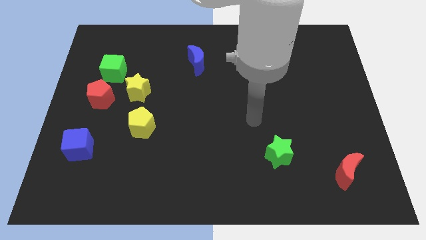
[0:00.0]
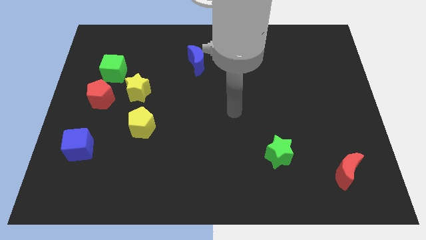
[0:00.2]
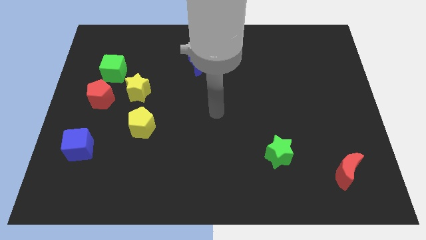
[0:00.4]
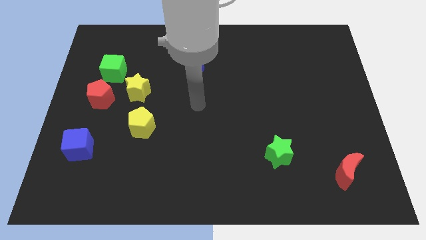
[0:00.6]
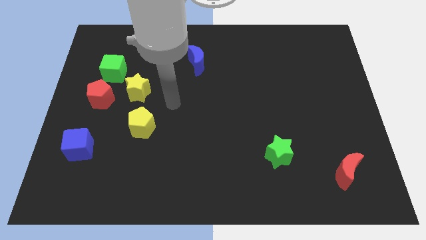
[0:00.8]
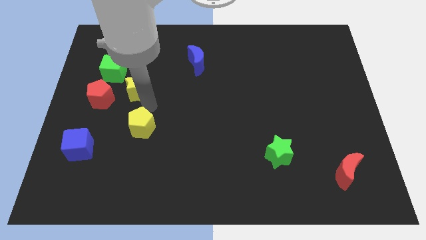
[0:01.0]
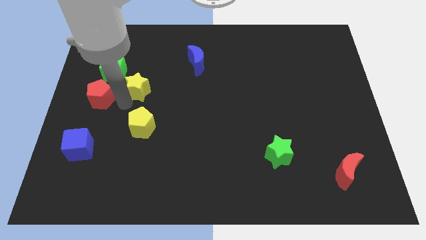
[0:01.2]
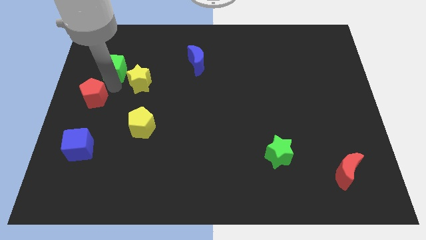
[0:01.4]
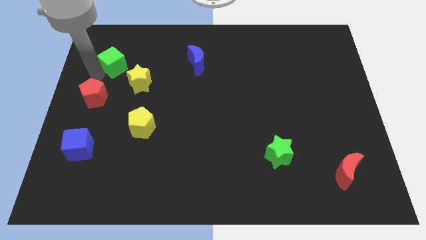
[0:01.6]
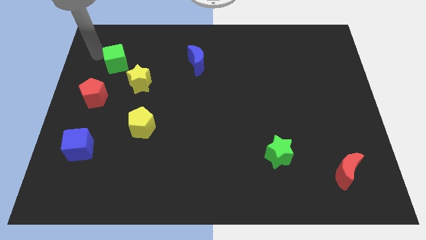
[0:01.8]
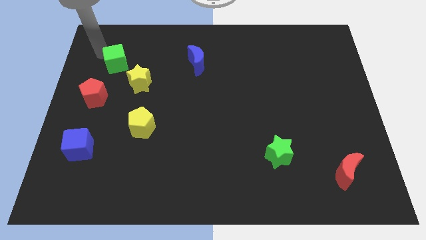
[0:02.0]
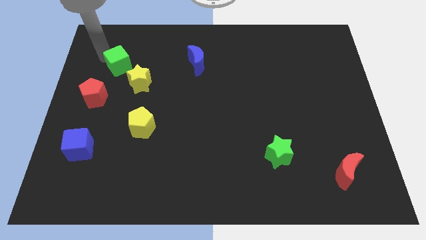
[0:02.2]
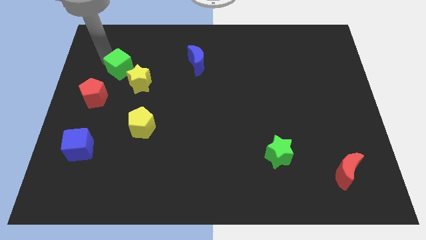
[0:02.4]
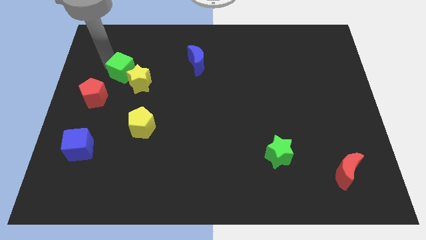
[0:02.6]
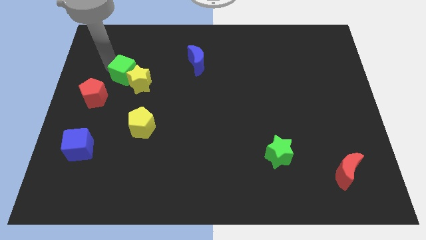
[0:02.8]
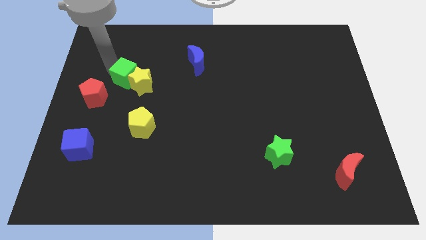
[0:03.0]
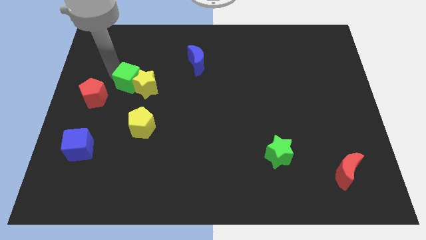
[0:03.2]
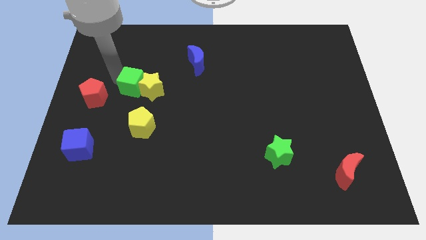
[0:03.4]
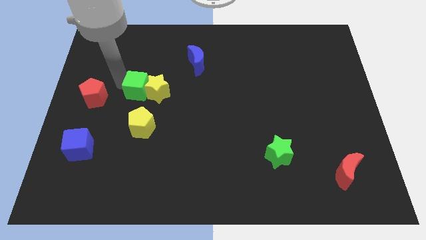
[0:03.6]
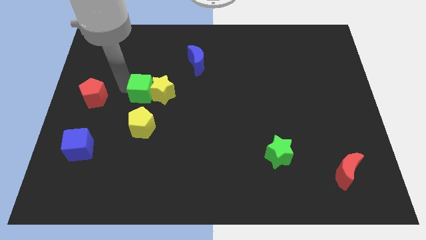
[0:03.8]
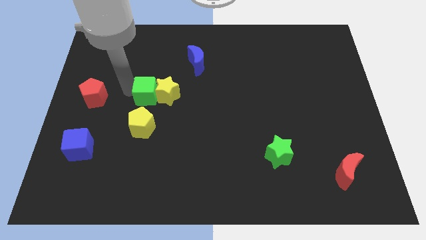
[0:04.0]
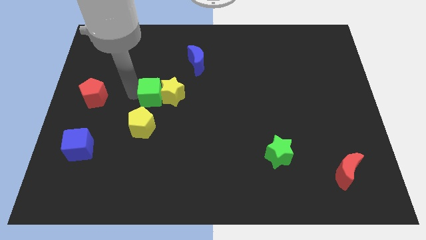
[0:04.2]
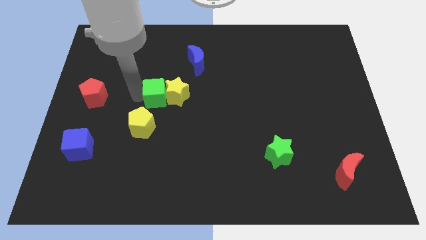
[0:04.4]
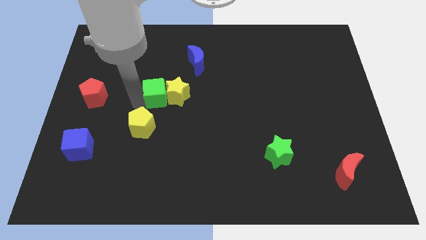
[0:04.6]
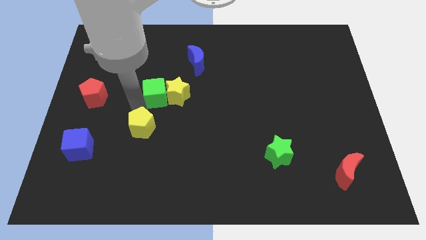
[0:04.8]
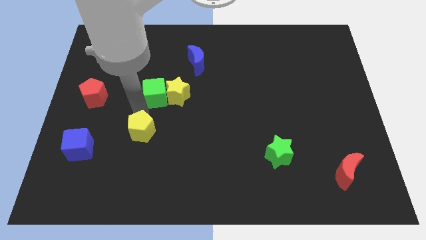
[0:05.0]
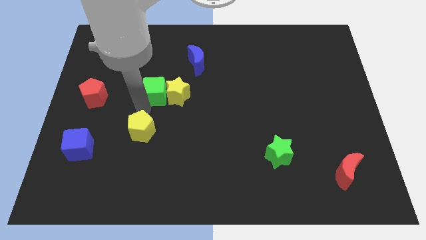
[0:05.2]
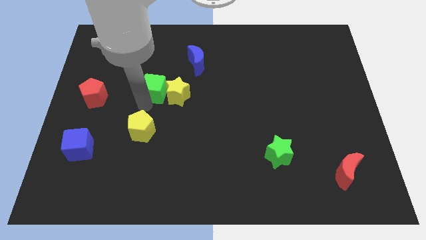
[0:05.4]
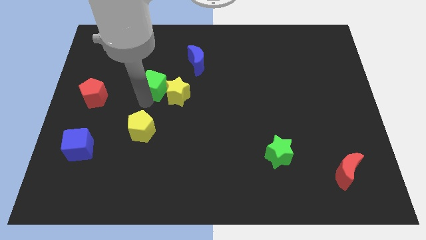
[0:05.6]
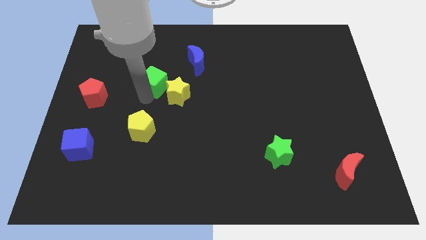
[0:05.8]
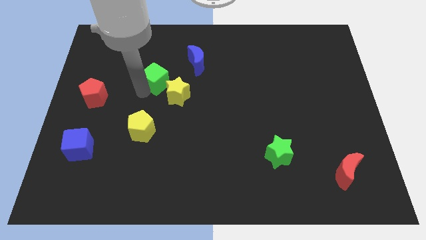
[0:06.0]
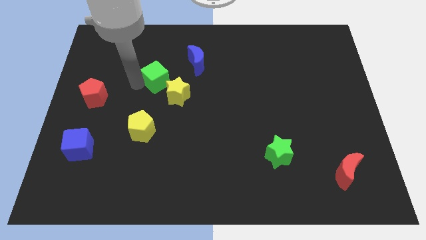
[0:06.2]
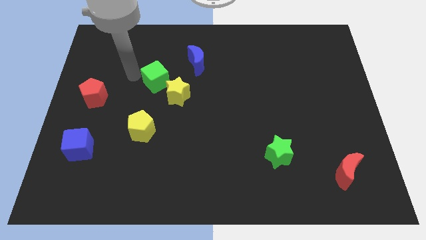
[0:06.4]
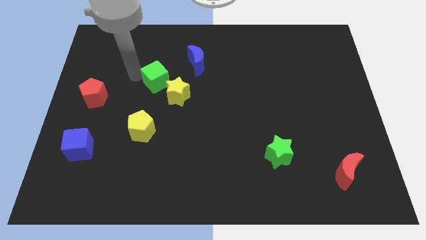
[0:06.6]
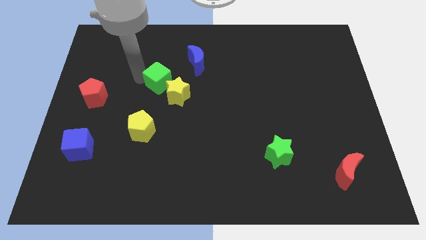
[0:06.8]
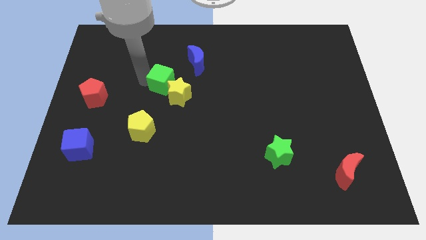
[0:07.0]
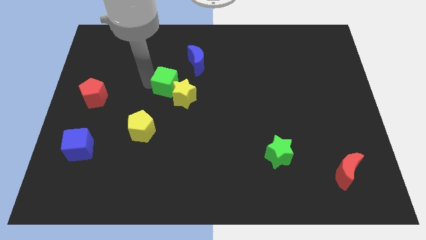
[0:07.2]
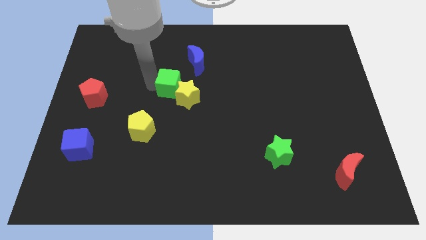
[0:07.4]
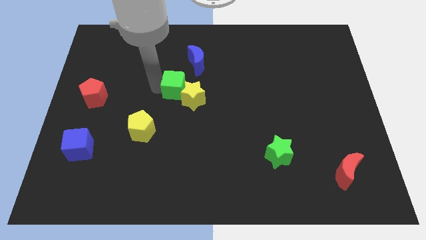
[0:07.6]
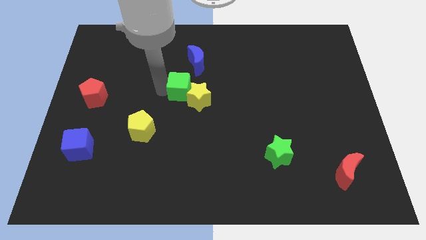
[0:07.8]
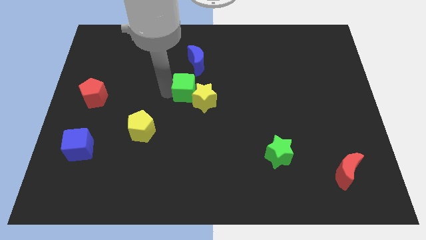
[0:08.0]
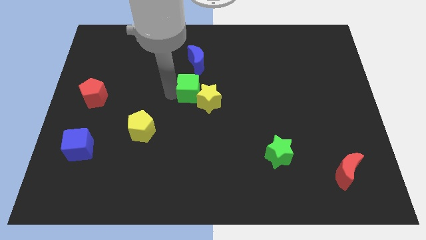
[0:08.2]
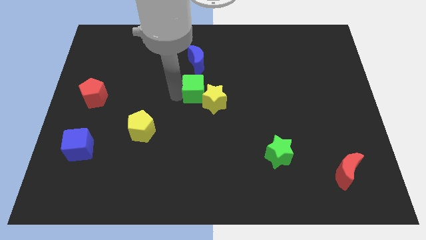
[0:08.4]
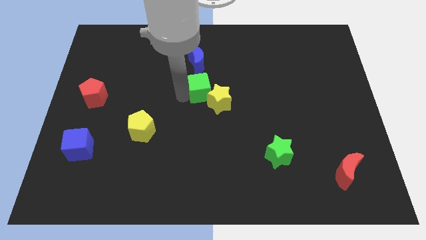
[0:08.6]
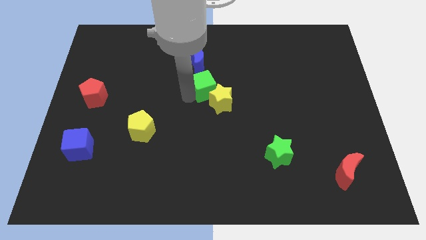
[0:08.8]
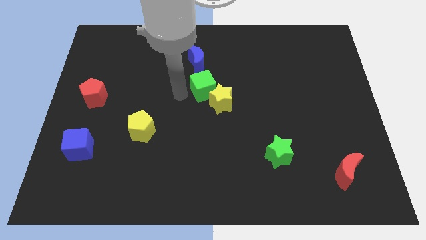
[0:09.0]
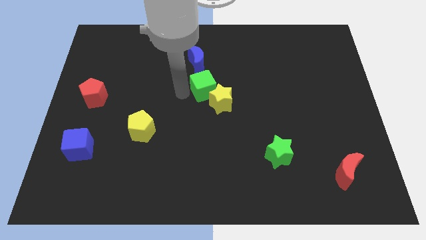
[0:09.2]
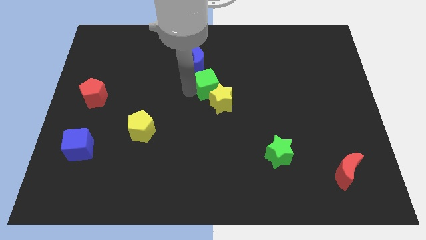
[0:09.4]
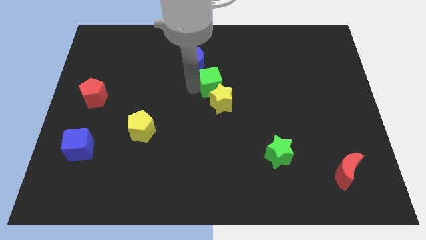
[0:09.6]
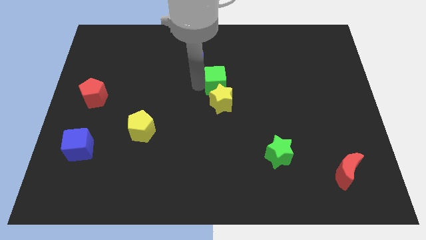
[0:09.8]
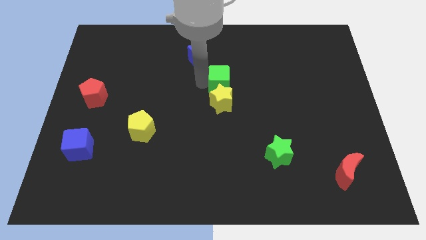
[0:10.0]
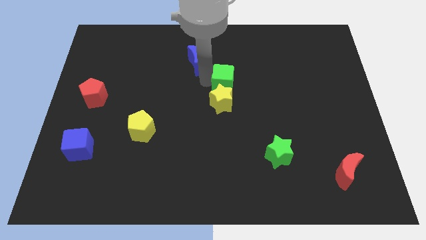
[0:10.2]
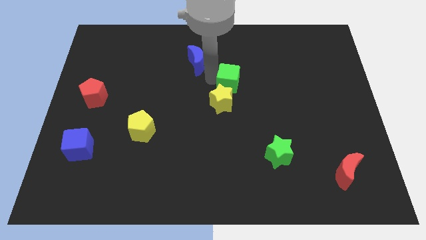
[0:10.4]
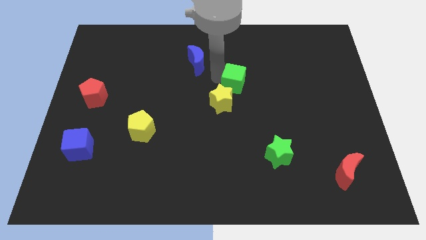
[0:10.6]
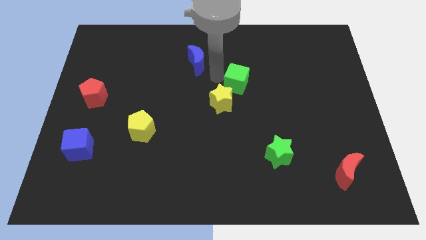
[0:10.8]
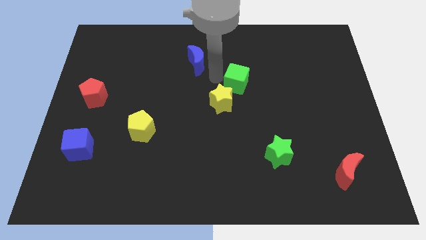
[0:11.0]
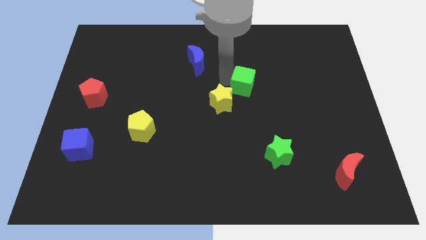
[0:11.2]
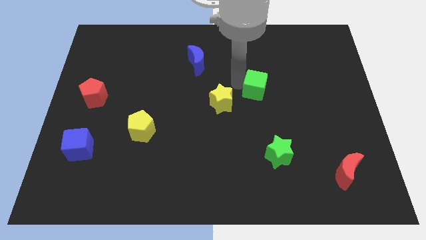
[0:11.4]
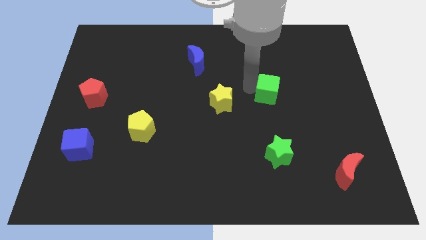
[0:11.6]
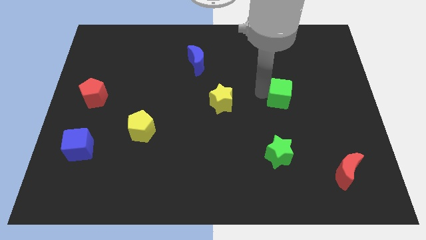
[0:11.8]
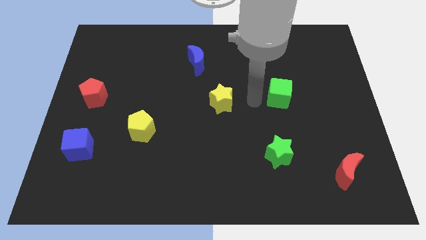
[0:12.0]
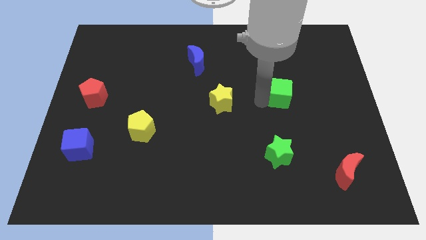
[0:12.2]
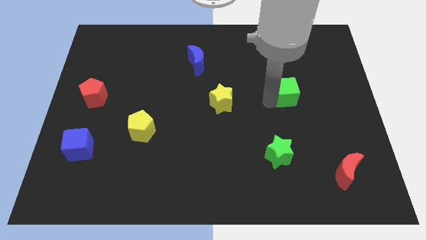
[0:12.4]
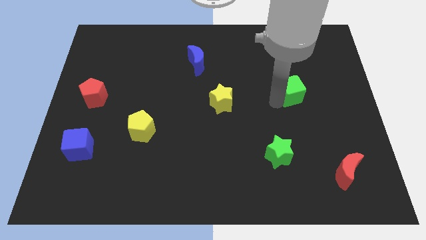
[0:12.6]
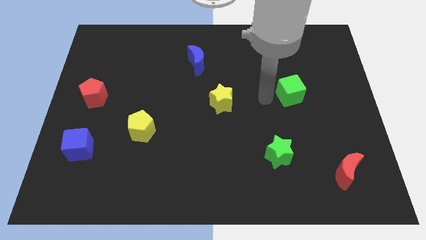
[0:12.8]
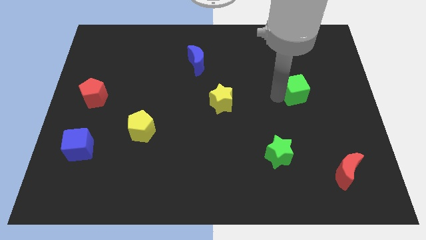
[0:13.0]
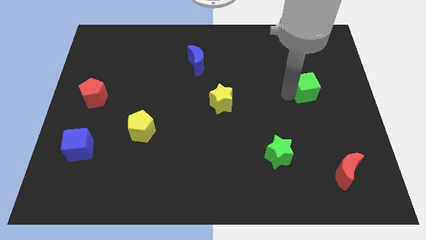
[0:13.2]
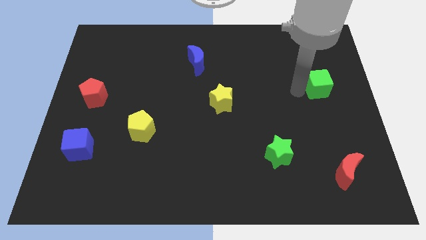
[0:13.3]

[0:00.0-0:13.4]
push the green cube to the right side
